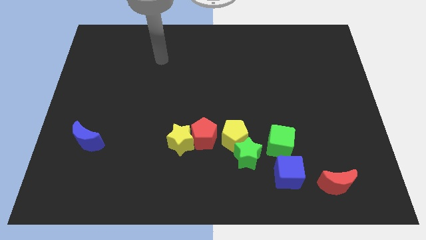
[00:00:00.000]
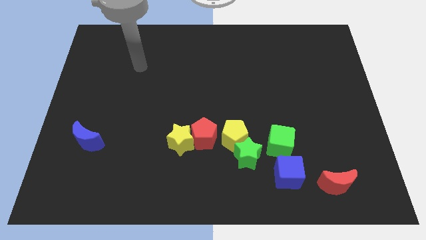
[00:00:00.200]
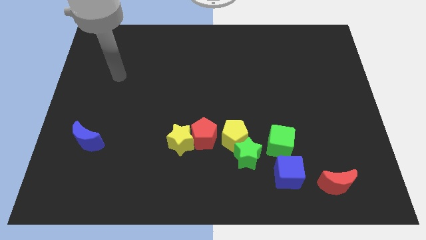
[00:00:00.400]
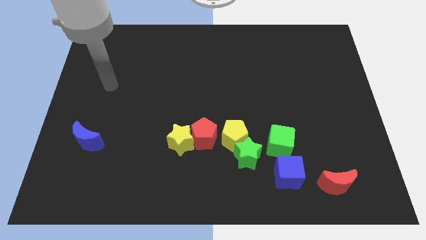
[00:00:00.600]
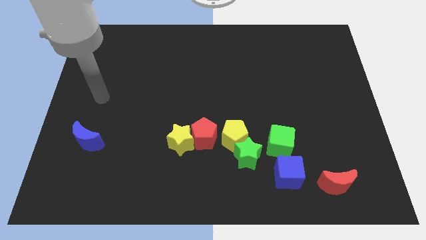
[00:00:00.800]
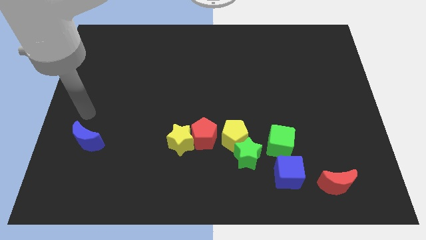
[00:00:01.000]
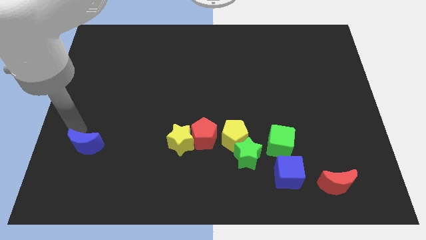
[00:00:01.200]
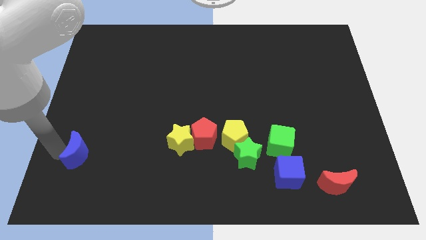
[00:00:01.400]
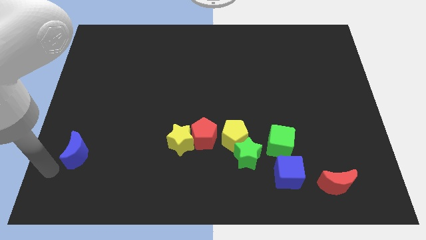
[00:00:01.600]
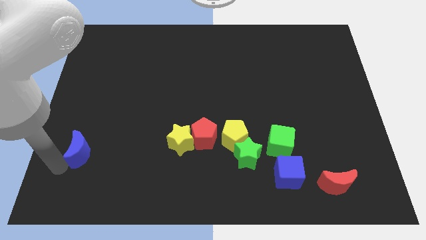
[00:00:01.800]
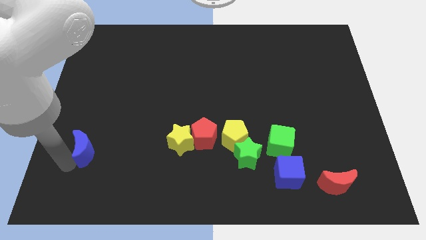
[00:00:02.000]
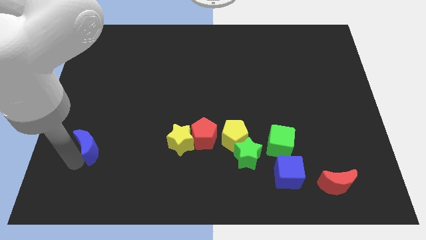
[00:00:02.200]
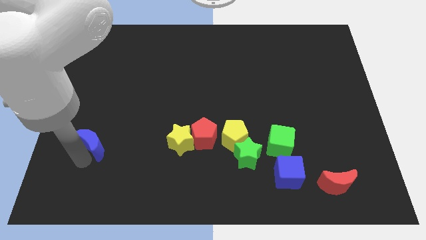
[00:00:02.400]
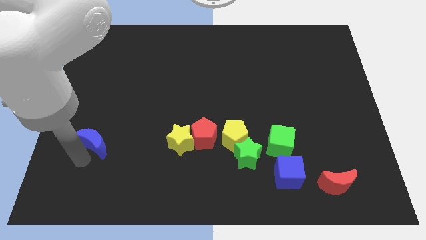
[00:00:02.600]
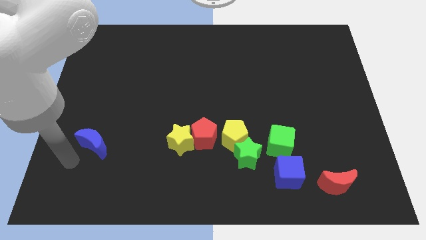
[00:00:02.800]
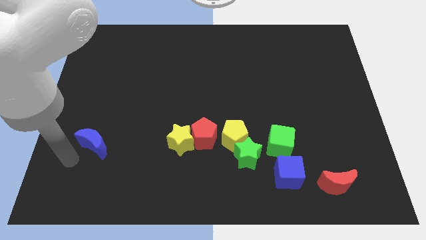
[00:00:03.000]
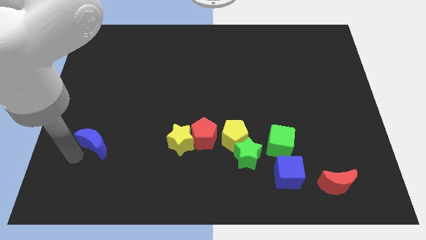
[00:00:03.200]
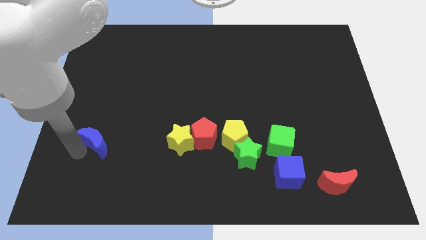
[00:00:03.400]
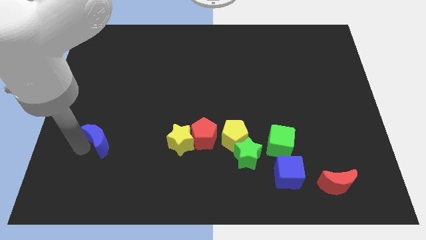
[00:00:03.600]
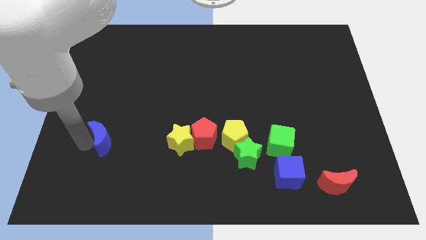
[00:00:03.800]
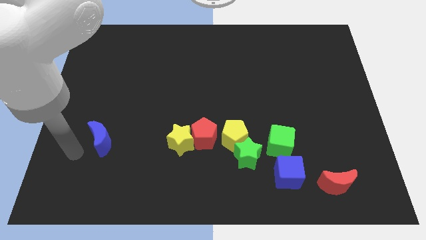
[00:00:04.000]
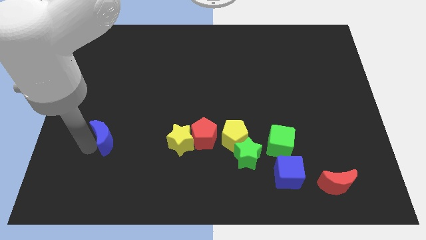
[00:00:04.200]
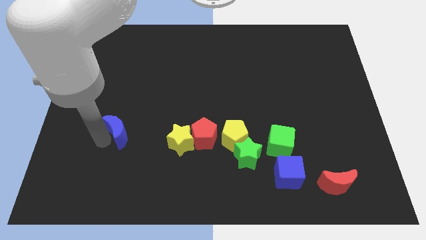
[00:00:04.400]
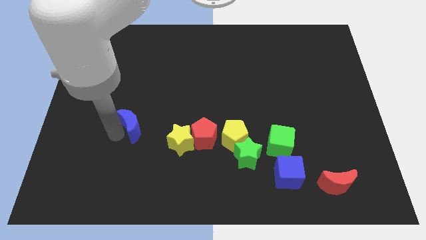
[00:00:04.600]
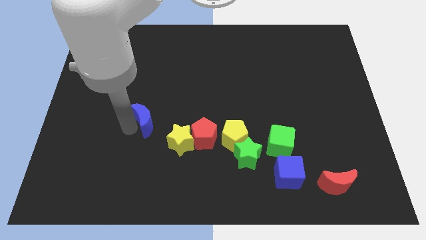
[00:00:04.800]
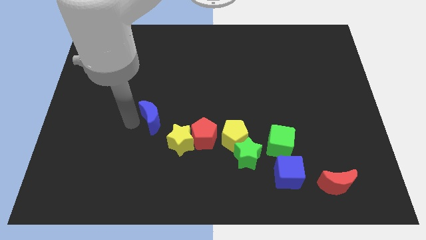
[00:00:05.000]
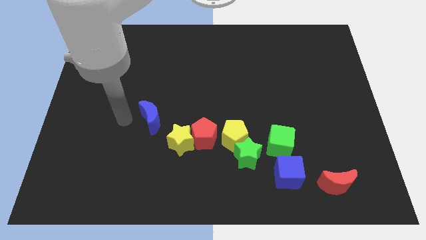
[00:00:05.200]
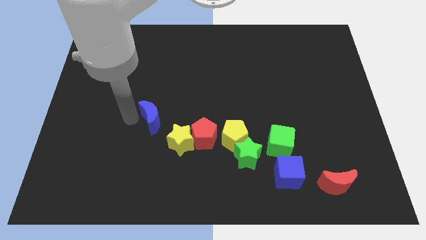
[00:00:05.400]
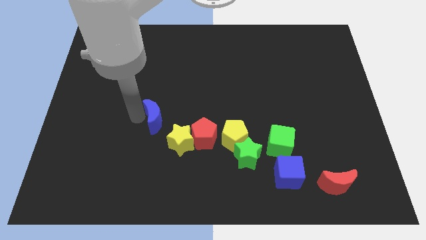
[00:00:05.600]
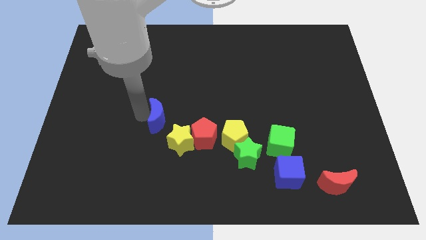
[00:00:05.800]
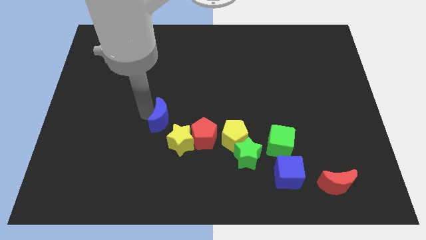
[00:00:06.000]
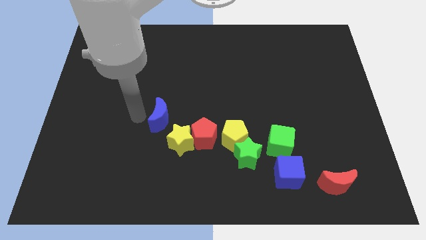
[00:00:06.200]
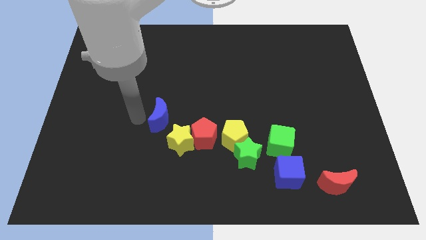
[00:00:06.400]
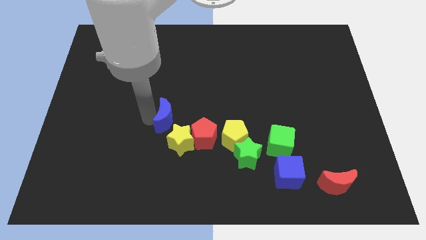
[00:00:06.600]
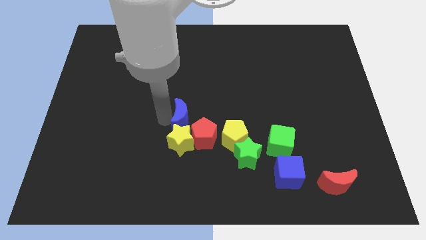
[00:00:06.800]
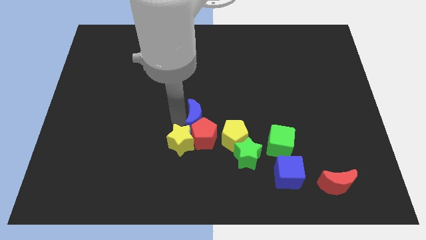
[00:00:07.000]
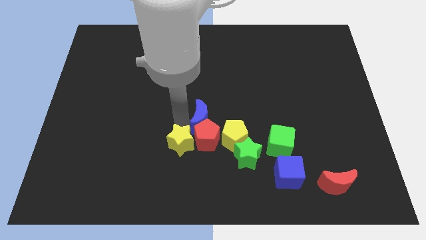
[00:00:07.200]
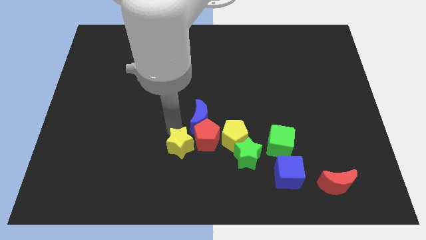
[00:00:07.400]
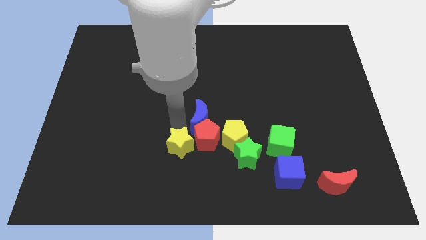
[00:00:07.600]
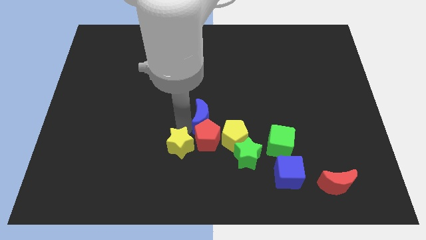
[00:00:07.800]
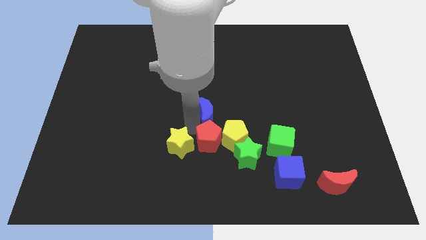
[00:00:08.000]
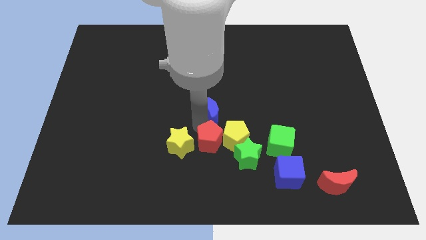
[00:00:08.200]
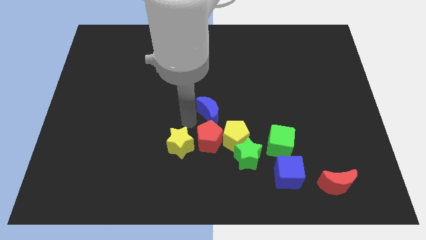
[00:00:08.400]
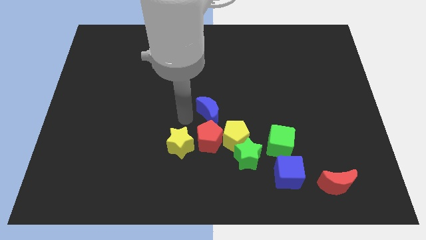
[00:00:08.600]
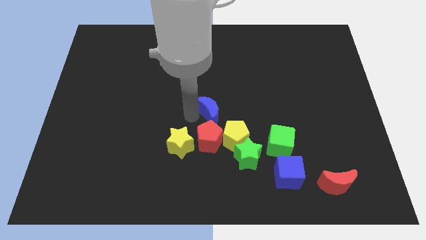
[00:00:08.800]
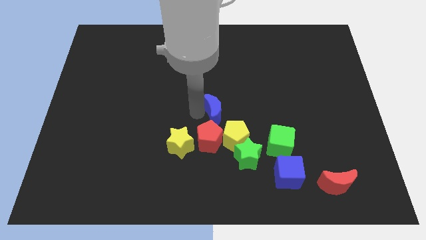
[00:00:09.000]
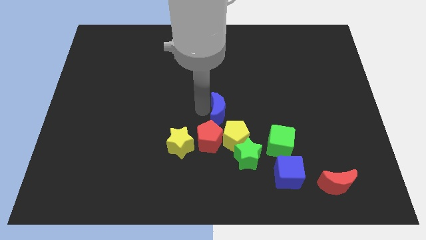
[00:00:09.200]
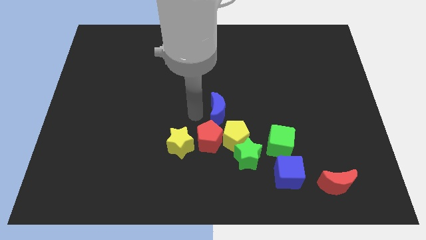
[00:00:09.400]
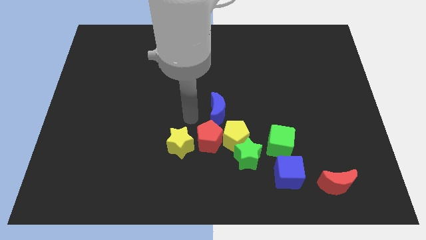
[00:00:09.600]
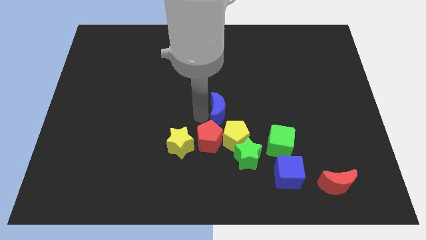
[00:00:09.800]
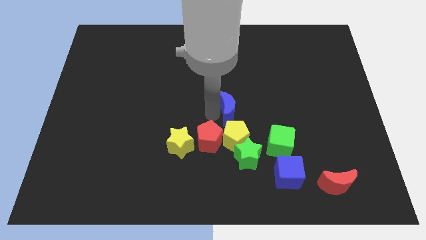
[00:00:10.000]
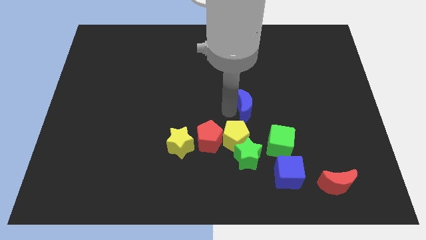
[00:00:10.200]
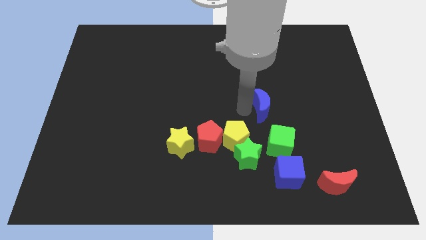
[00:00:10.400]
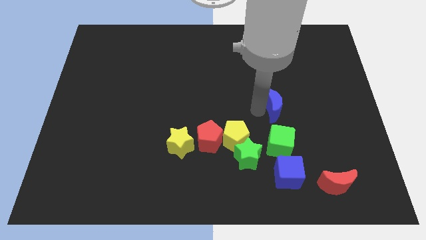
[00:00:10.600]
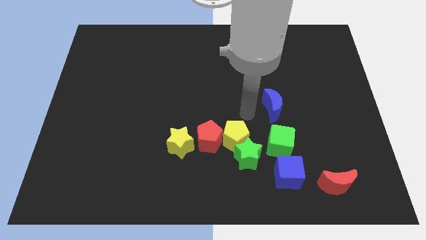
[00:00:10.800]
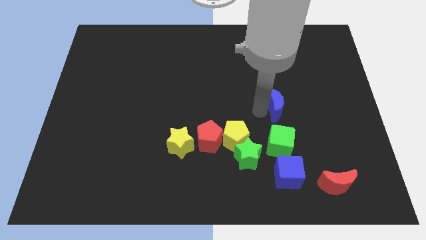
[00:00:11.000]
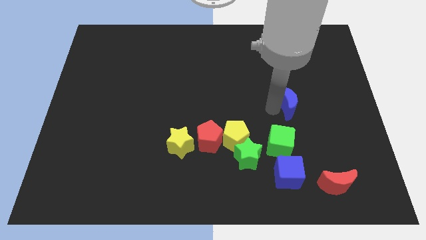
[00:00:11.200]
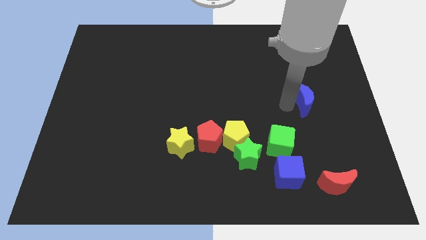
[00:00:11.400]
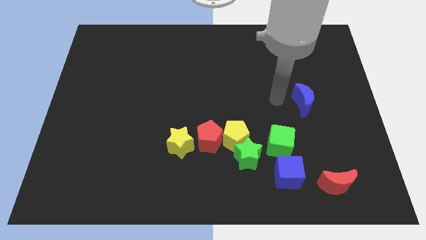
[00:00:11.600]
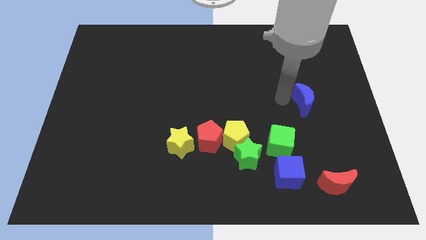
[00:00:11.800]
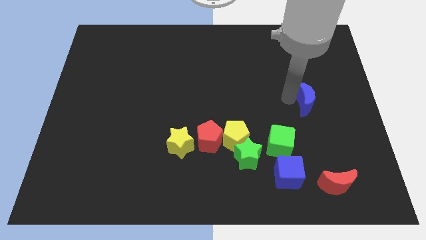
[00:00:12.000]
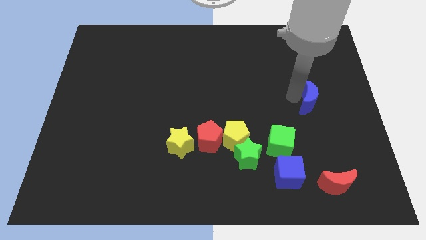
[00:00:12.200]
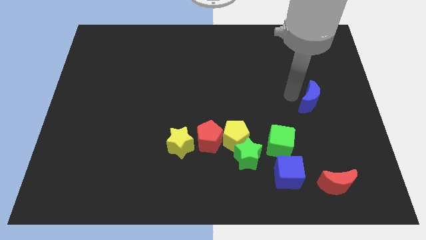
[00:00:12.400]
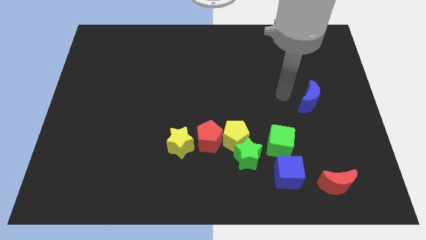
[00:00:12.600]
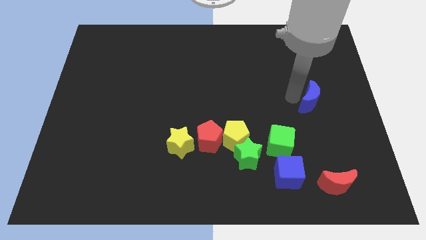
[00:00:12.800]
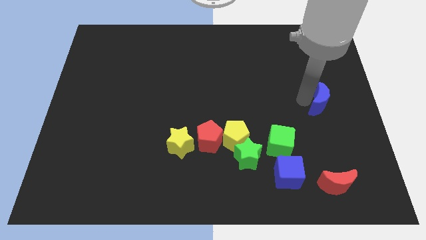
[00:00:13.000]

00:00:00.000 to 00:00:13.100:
push the blue moon to the right side
